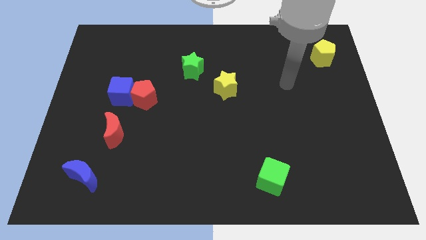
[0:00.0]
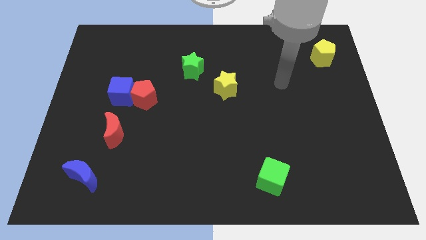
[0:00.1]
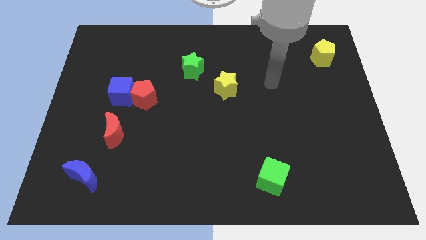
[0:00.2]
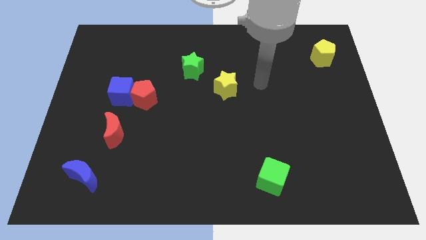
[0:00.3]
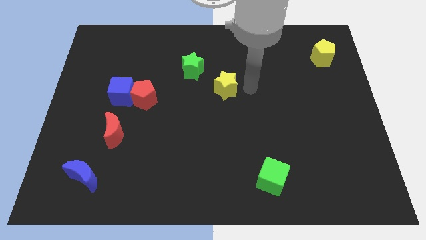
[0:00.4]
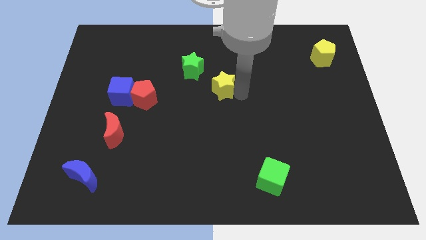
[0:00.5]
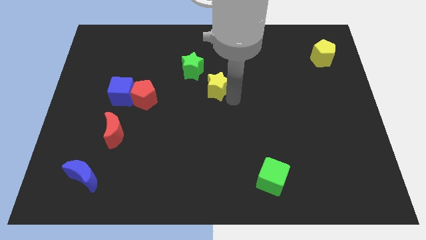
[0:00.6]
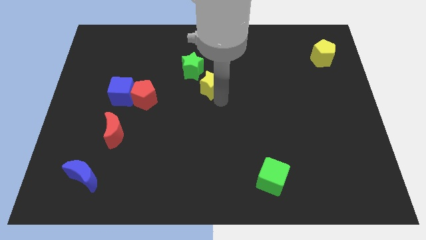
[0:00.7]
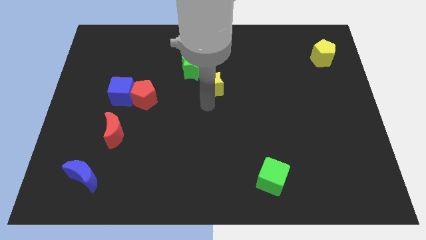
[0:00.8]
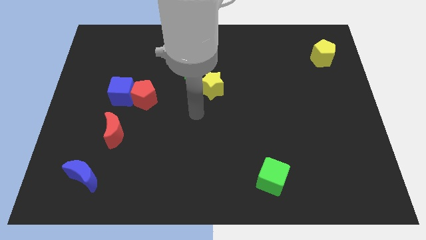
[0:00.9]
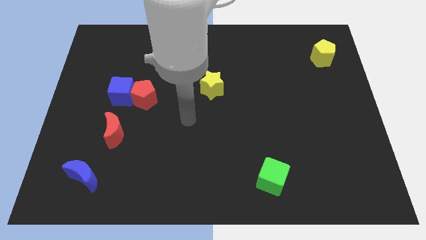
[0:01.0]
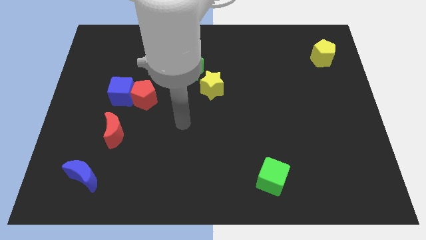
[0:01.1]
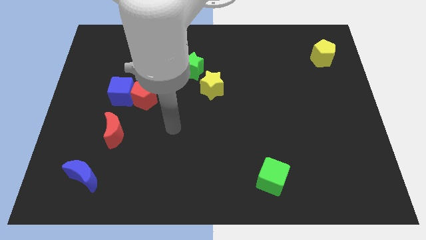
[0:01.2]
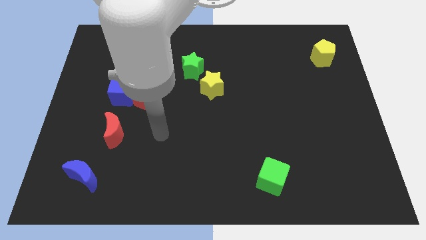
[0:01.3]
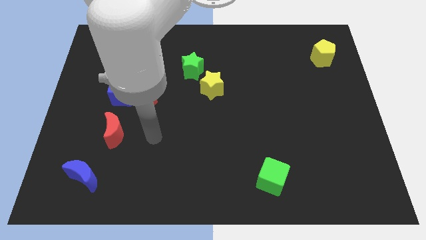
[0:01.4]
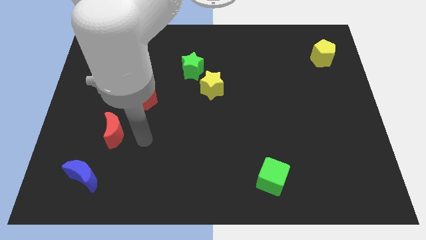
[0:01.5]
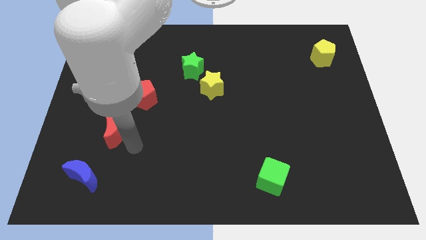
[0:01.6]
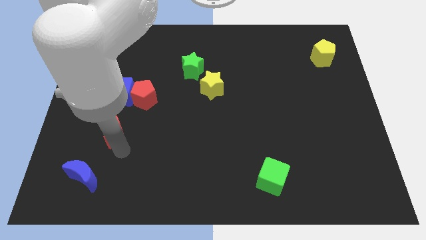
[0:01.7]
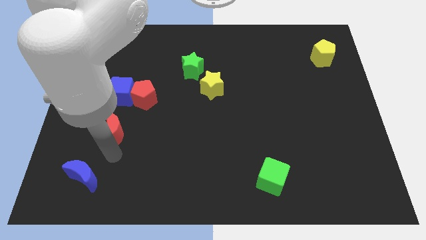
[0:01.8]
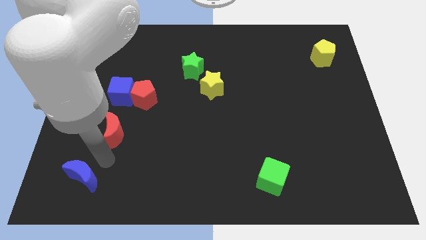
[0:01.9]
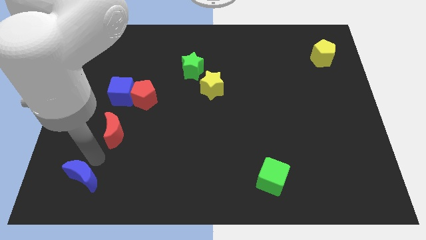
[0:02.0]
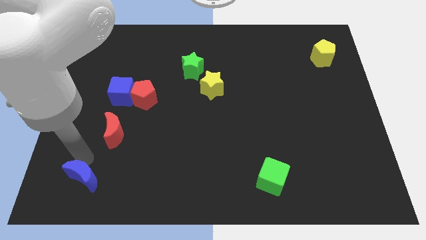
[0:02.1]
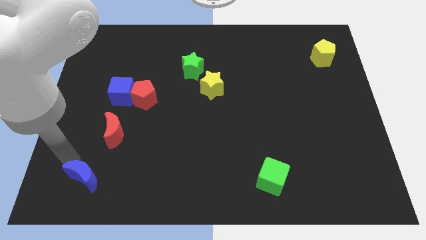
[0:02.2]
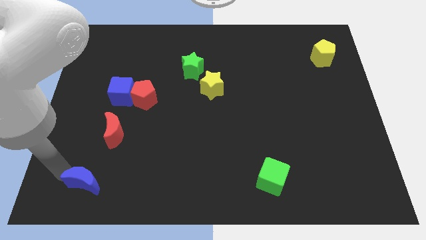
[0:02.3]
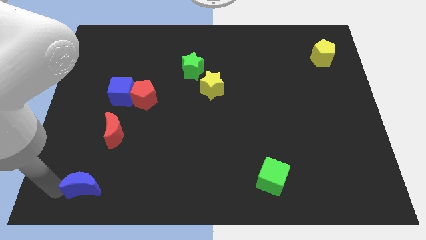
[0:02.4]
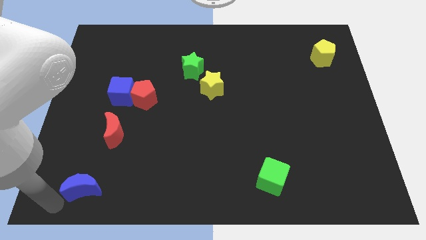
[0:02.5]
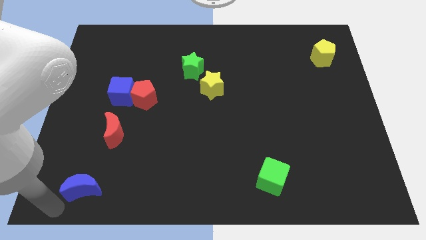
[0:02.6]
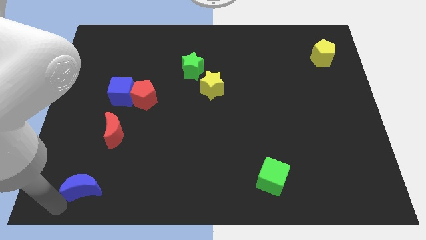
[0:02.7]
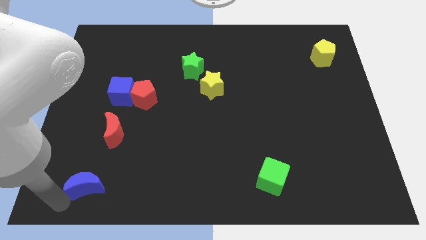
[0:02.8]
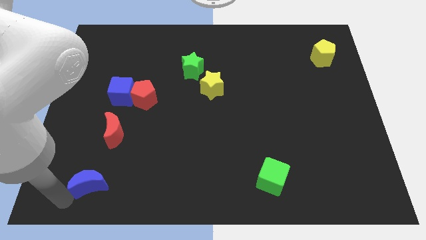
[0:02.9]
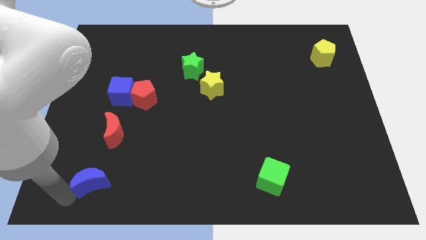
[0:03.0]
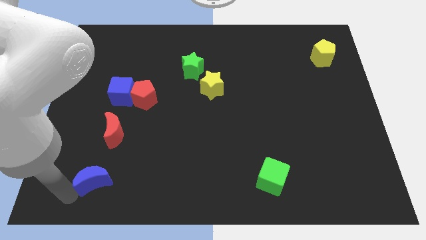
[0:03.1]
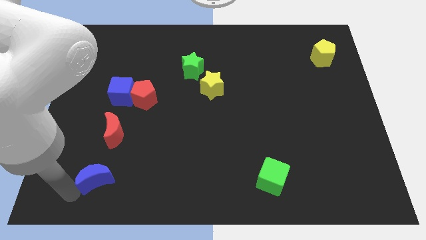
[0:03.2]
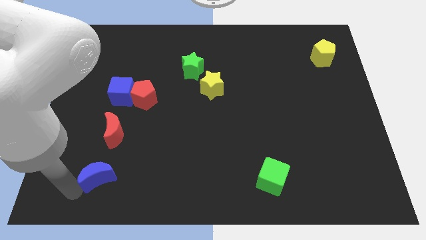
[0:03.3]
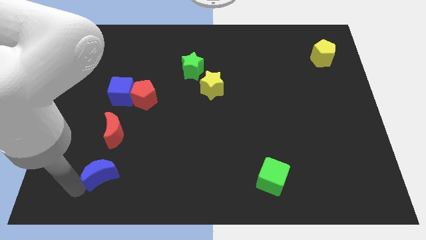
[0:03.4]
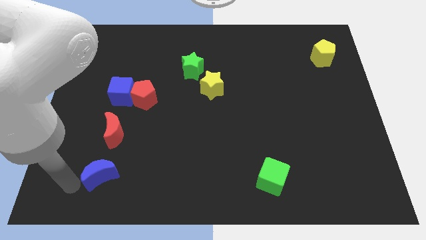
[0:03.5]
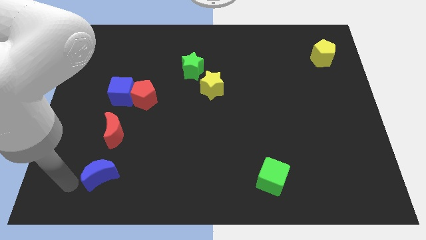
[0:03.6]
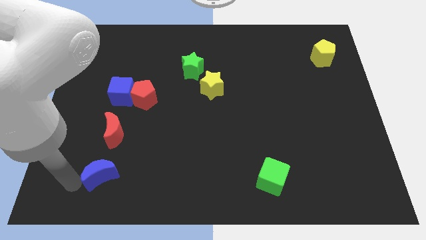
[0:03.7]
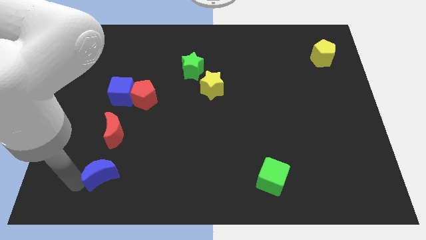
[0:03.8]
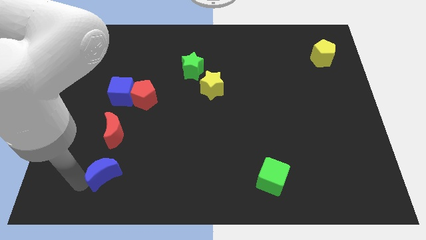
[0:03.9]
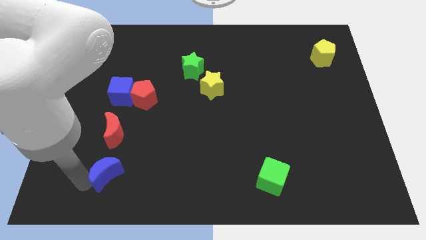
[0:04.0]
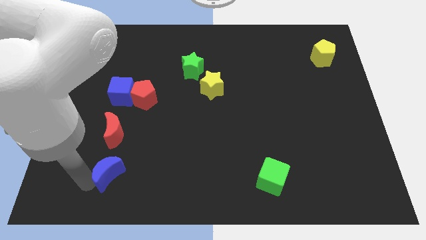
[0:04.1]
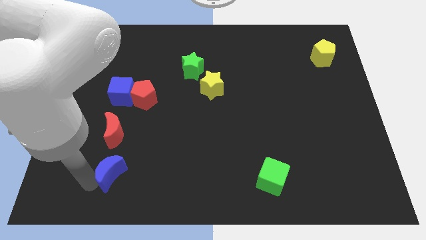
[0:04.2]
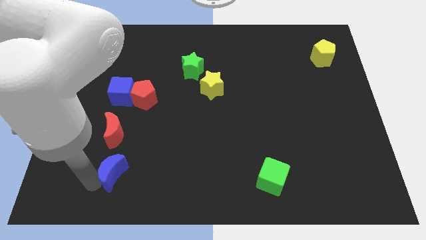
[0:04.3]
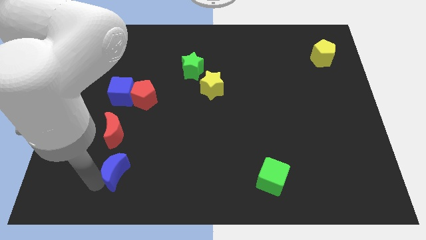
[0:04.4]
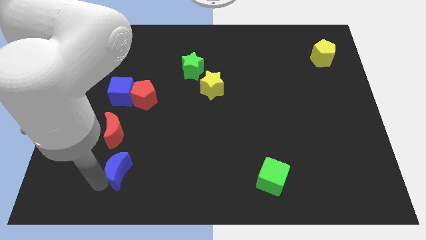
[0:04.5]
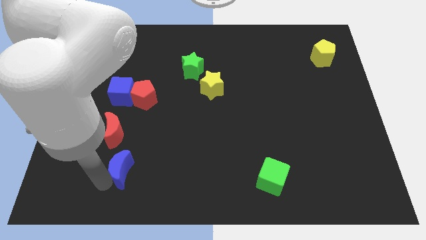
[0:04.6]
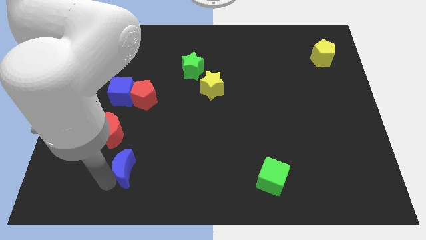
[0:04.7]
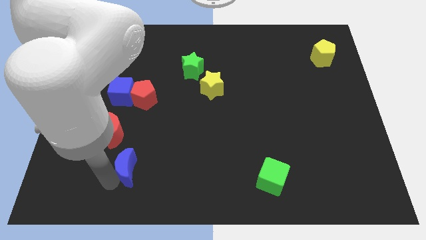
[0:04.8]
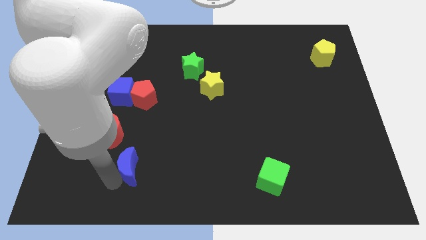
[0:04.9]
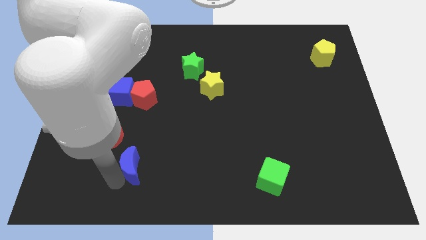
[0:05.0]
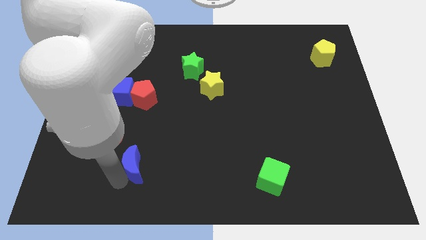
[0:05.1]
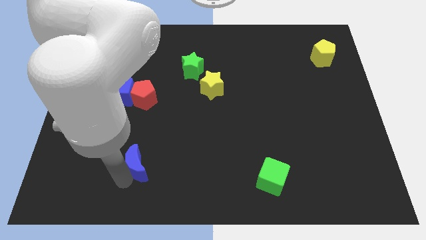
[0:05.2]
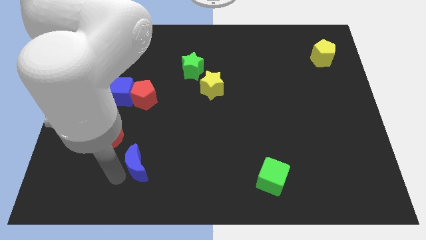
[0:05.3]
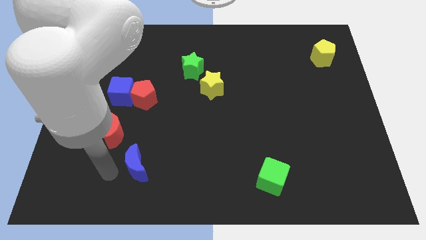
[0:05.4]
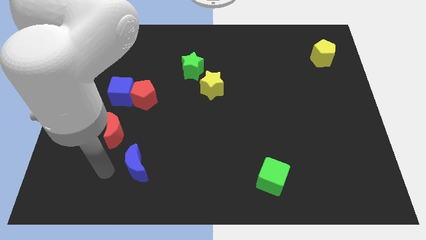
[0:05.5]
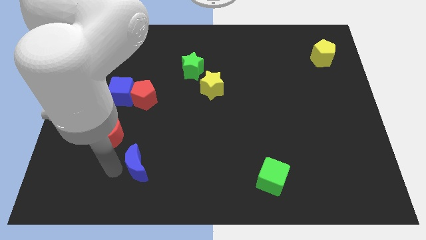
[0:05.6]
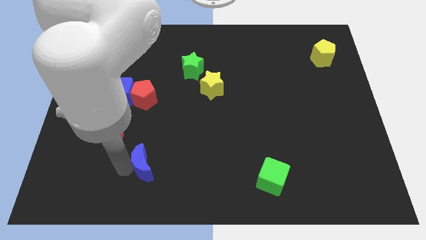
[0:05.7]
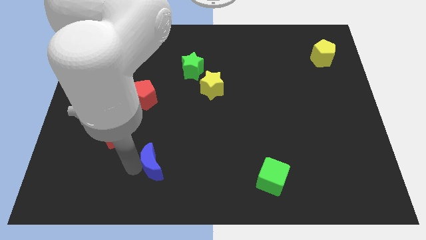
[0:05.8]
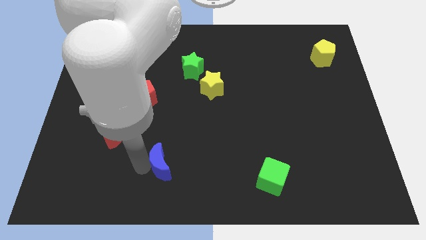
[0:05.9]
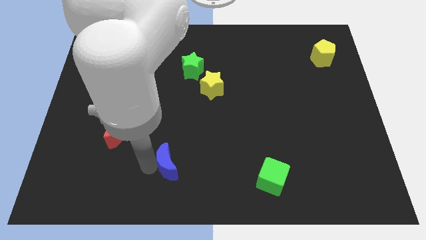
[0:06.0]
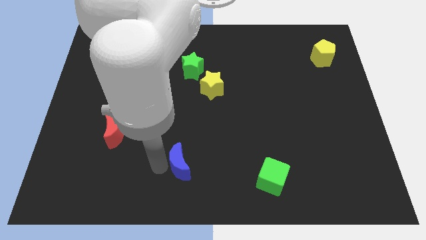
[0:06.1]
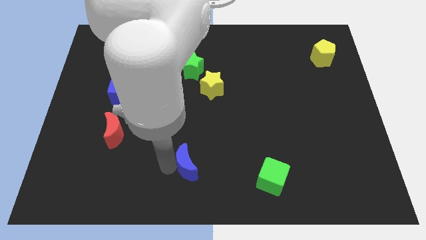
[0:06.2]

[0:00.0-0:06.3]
move the blue moon to the right

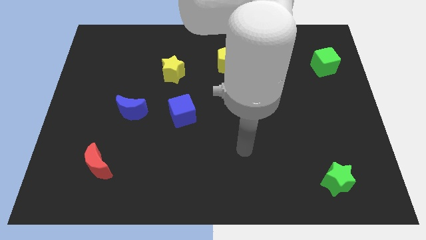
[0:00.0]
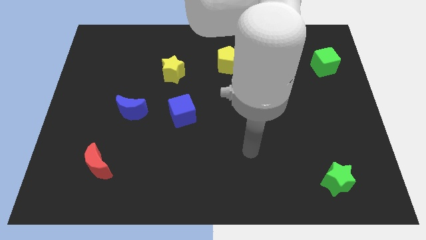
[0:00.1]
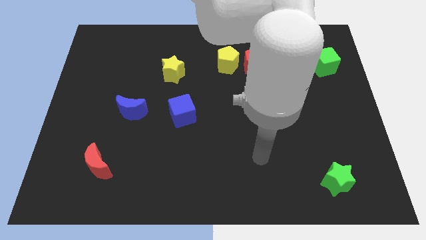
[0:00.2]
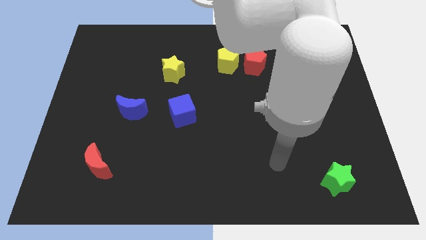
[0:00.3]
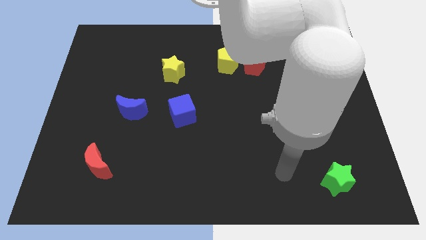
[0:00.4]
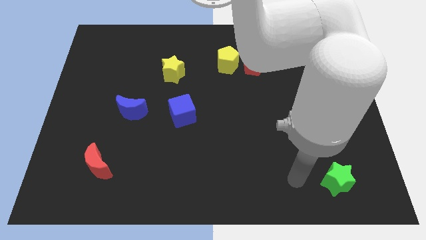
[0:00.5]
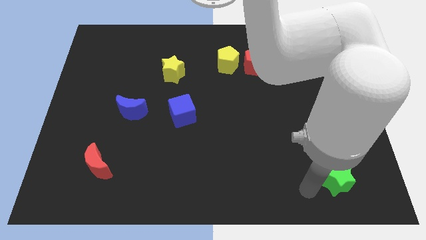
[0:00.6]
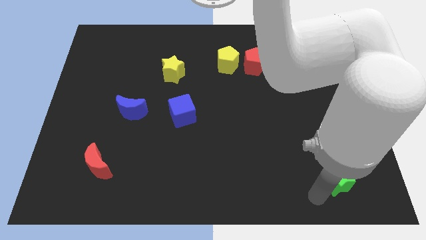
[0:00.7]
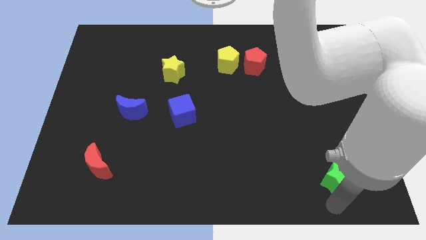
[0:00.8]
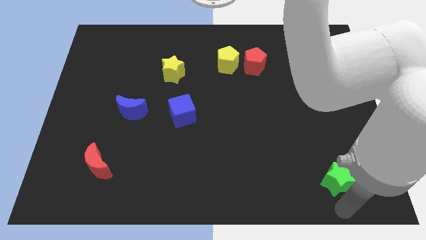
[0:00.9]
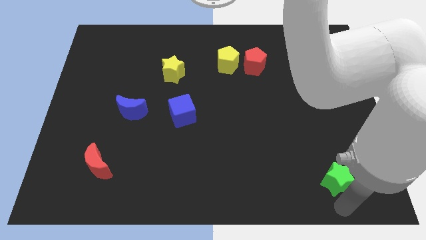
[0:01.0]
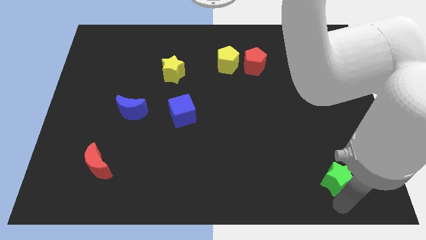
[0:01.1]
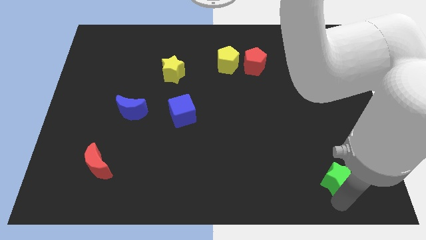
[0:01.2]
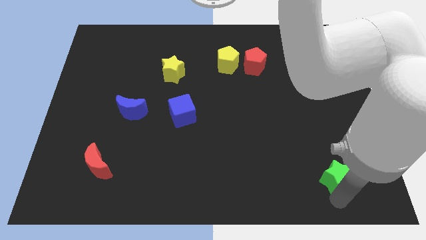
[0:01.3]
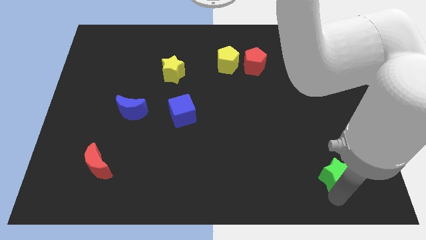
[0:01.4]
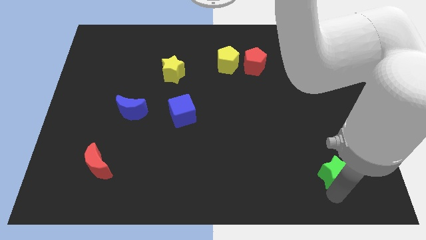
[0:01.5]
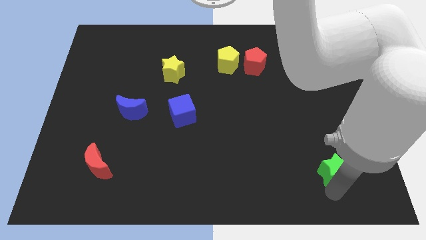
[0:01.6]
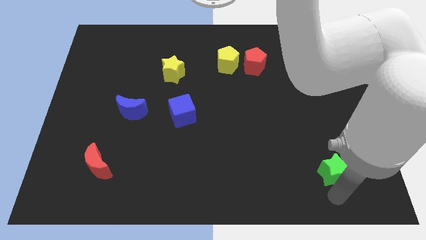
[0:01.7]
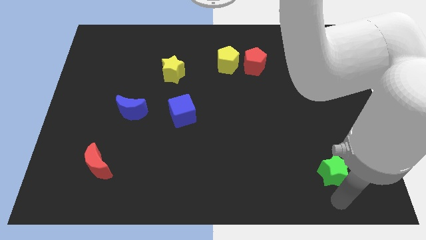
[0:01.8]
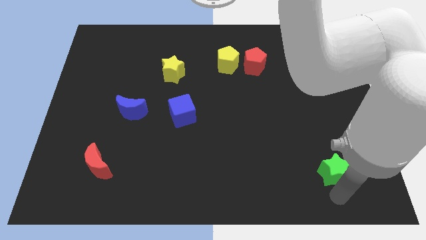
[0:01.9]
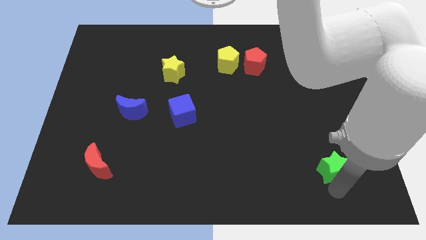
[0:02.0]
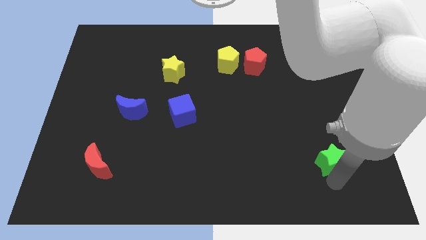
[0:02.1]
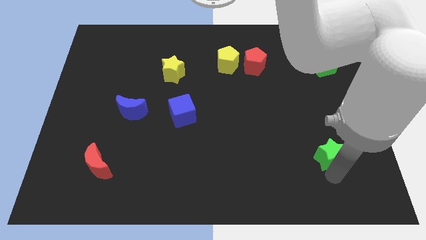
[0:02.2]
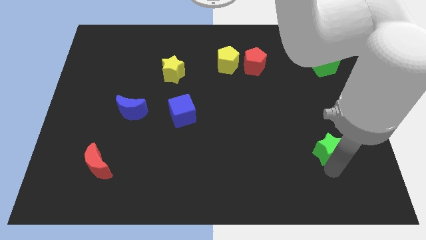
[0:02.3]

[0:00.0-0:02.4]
slightly push the green star upwards
